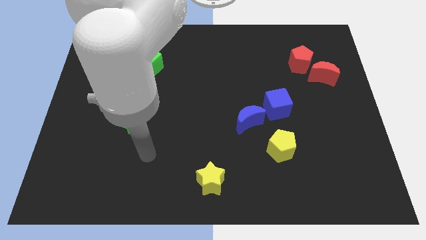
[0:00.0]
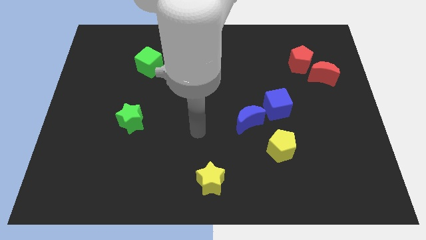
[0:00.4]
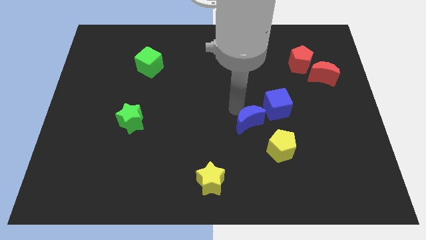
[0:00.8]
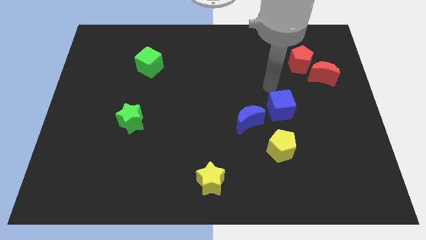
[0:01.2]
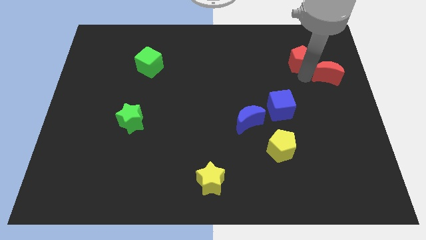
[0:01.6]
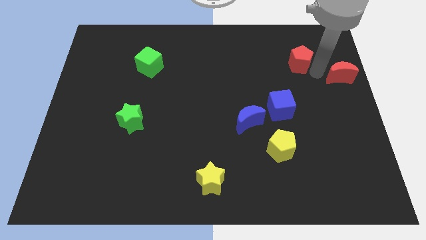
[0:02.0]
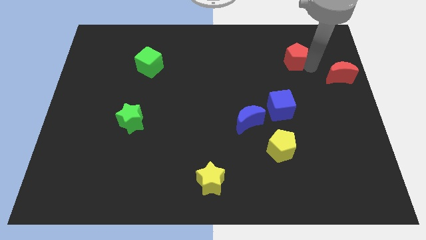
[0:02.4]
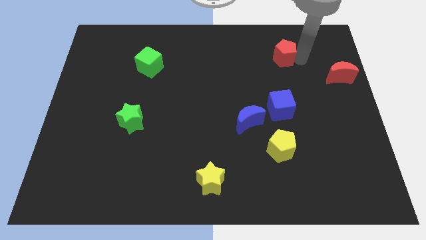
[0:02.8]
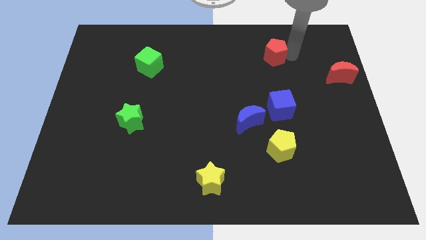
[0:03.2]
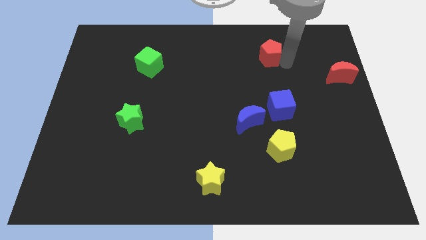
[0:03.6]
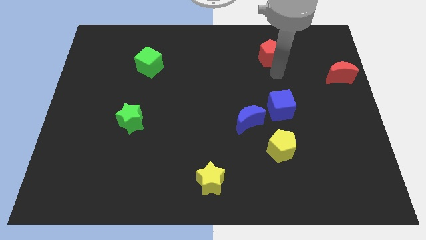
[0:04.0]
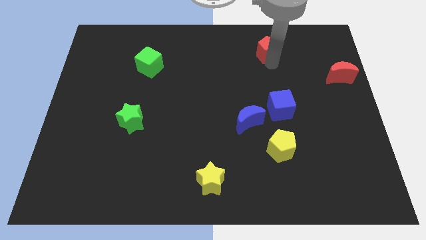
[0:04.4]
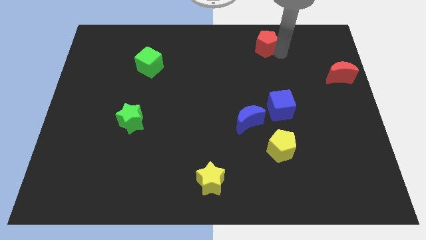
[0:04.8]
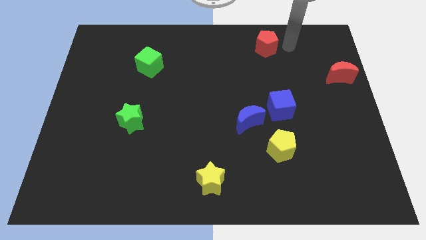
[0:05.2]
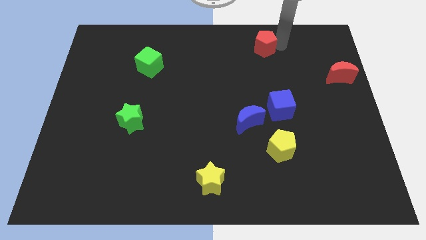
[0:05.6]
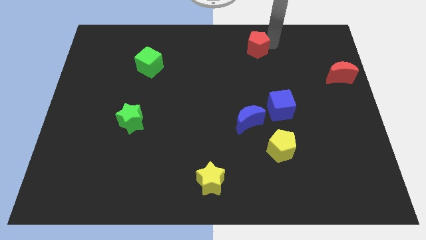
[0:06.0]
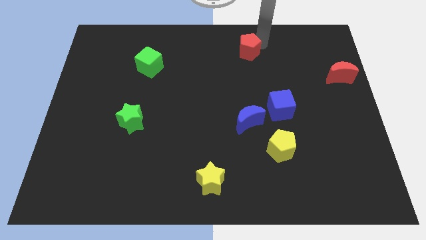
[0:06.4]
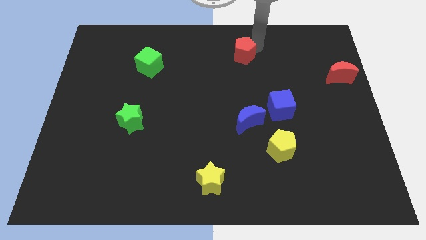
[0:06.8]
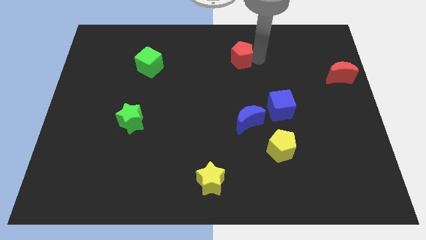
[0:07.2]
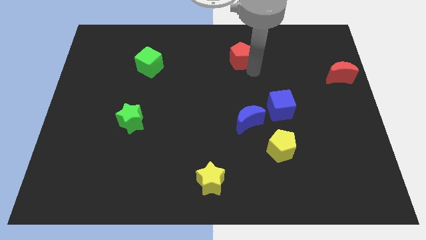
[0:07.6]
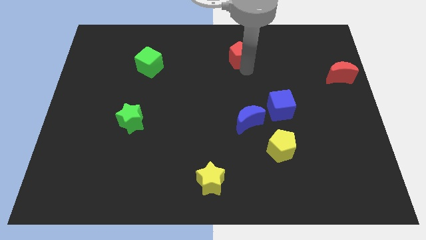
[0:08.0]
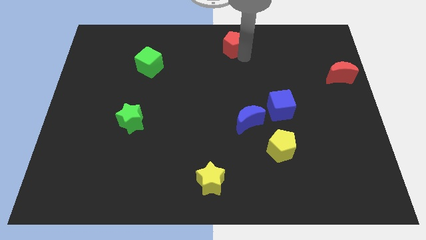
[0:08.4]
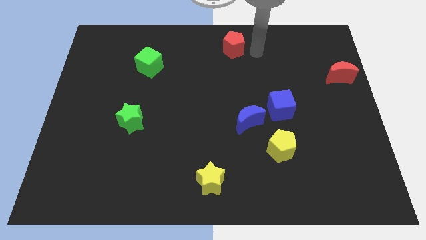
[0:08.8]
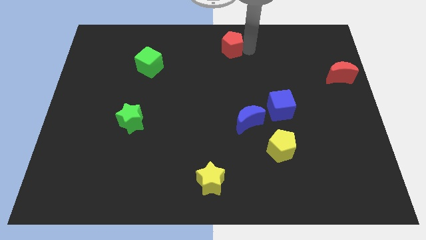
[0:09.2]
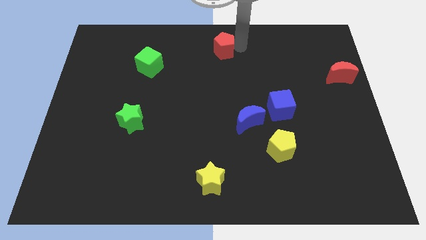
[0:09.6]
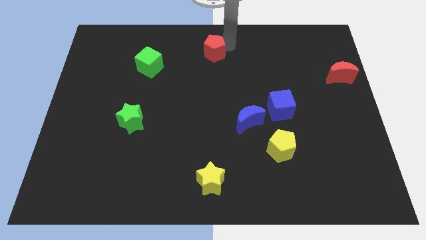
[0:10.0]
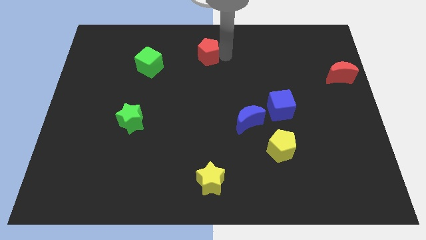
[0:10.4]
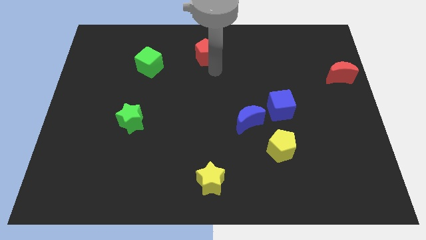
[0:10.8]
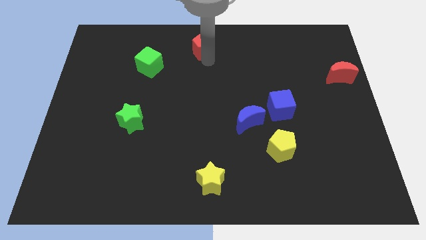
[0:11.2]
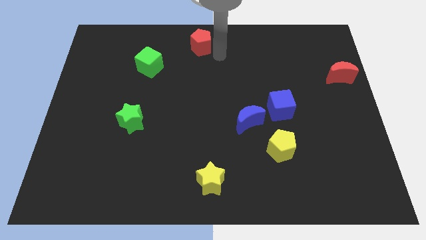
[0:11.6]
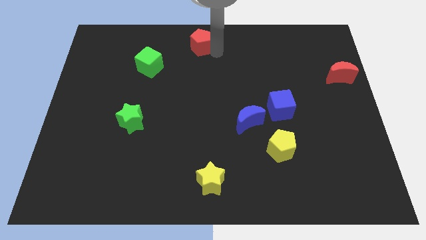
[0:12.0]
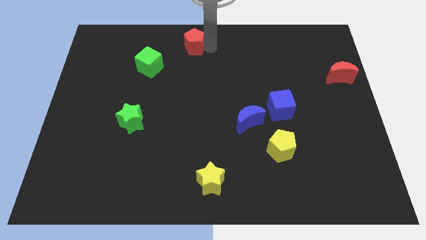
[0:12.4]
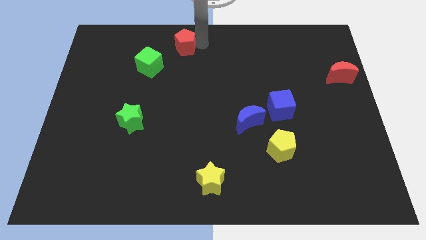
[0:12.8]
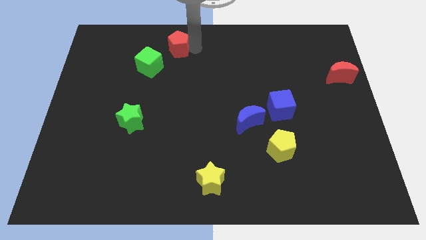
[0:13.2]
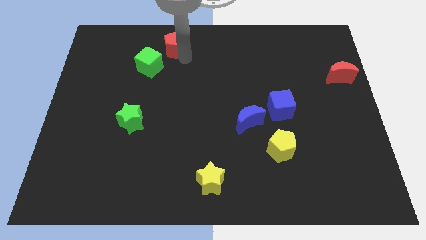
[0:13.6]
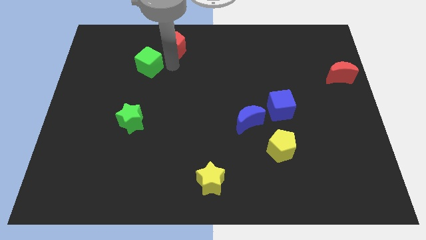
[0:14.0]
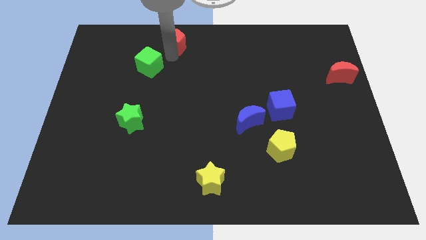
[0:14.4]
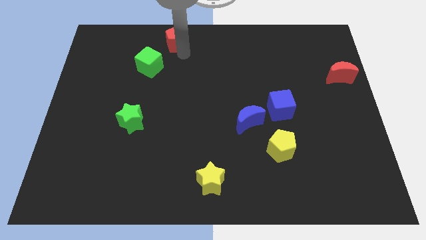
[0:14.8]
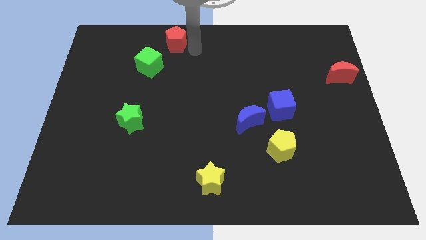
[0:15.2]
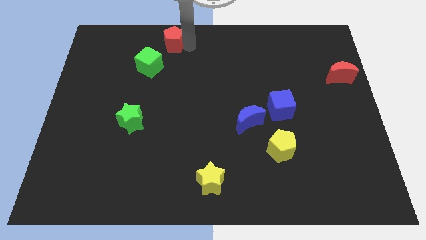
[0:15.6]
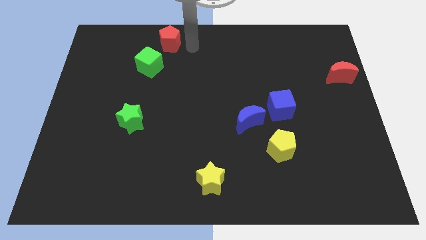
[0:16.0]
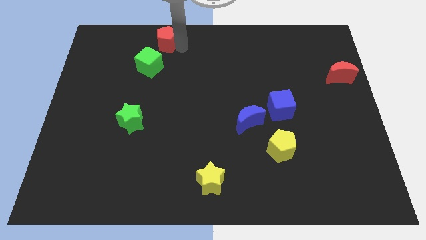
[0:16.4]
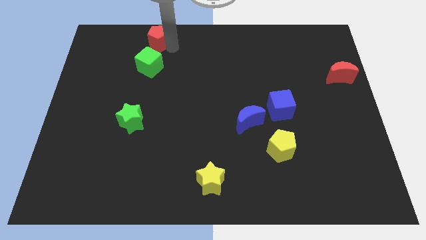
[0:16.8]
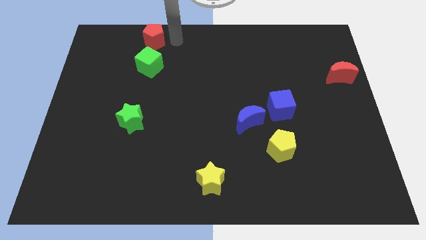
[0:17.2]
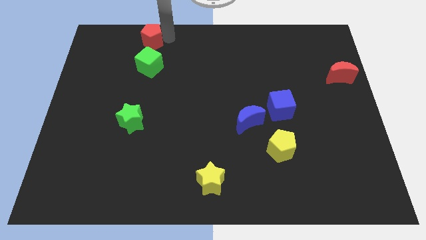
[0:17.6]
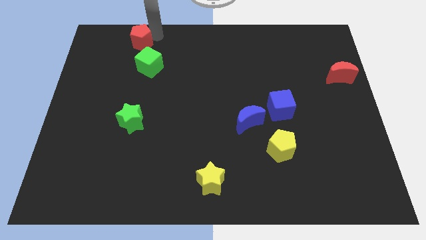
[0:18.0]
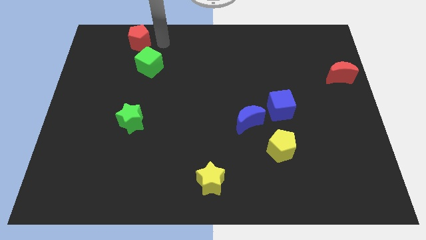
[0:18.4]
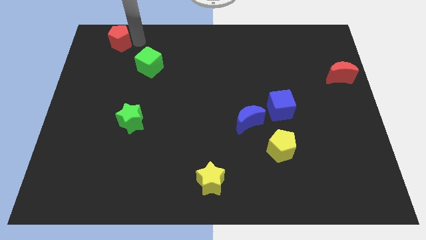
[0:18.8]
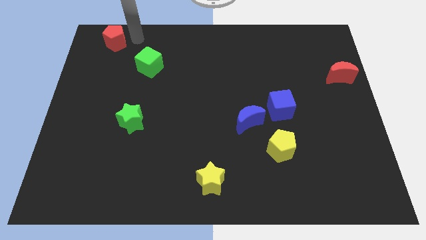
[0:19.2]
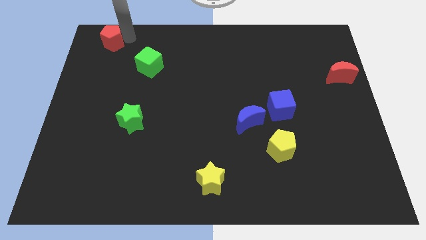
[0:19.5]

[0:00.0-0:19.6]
put the red pentagon to the top left of the board

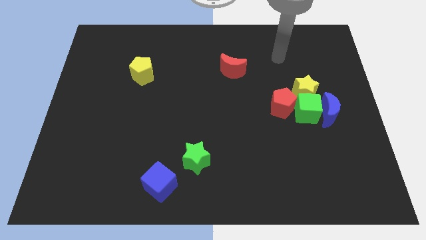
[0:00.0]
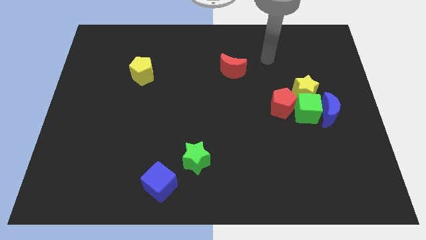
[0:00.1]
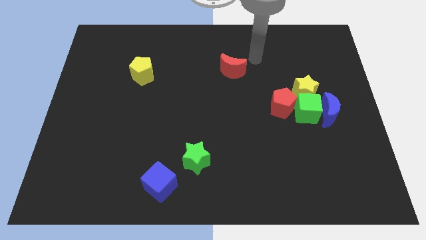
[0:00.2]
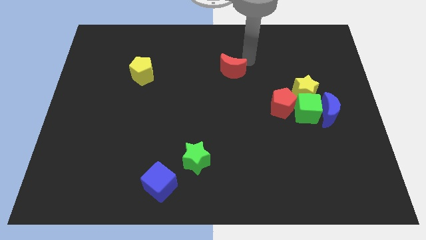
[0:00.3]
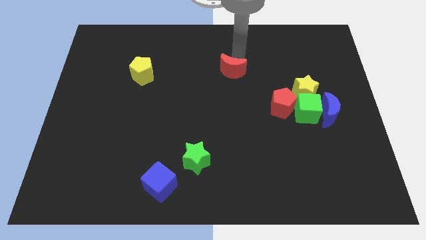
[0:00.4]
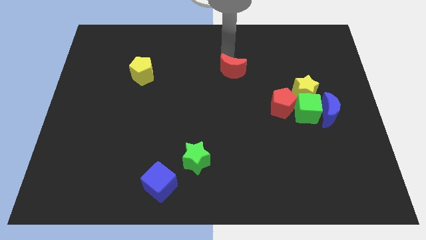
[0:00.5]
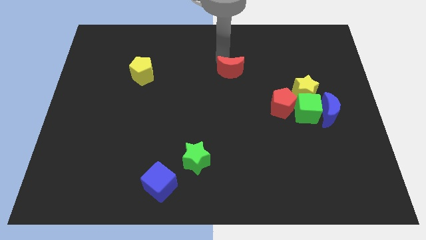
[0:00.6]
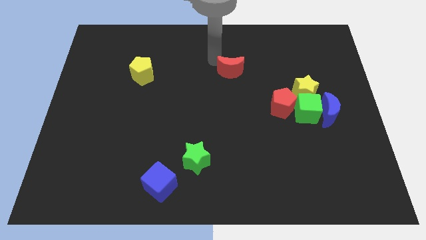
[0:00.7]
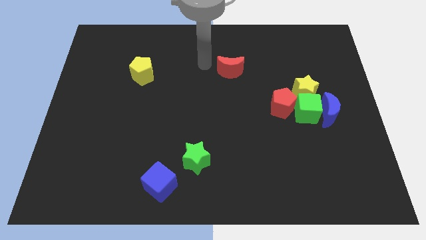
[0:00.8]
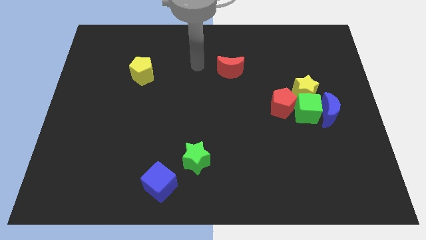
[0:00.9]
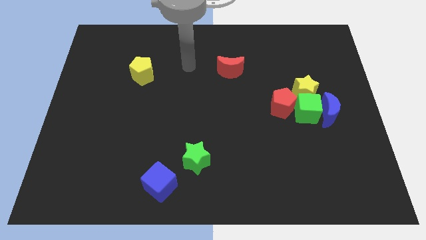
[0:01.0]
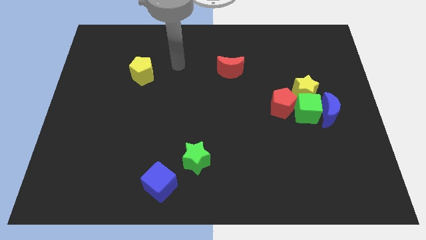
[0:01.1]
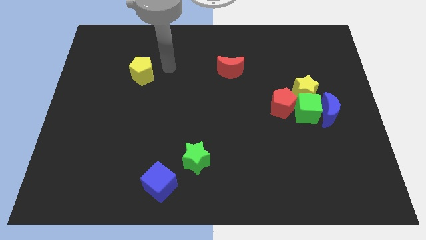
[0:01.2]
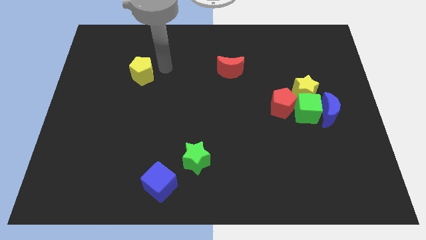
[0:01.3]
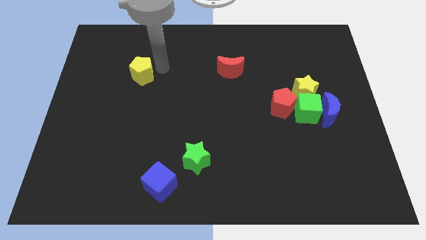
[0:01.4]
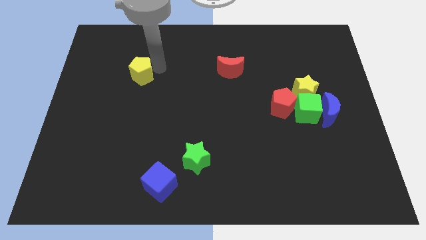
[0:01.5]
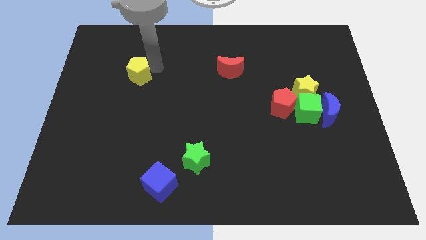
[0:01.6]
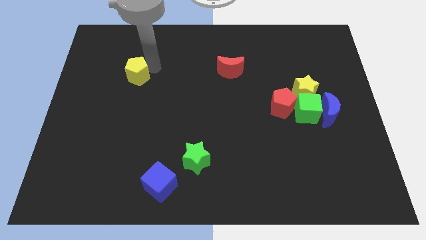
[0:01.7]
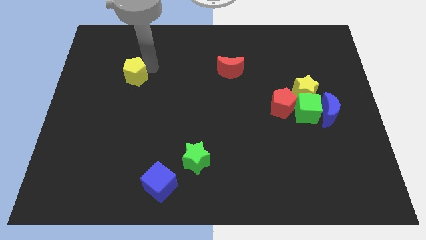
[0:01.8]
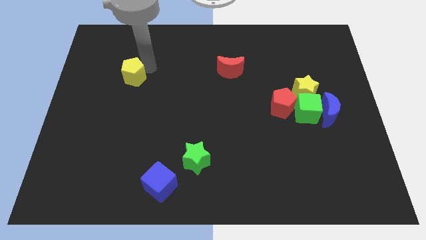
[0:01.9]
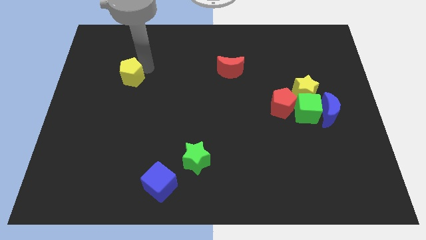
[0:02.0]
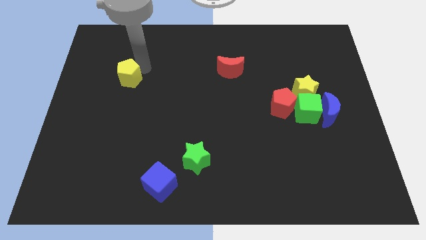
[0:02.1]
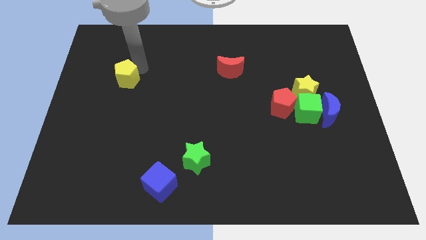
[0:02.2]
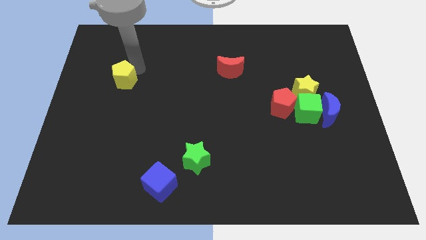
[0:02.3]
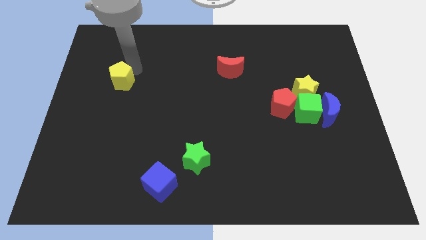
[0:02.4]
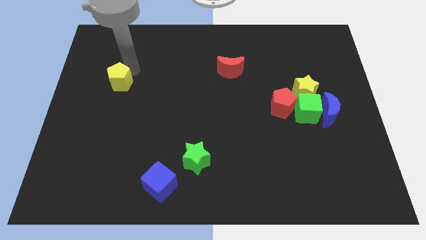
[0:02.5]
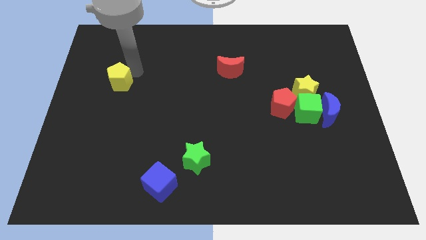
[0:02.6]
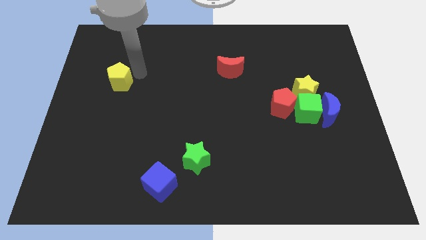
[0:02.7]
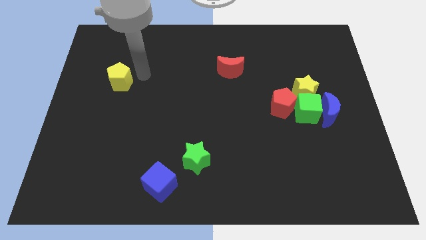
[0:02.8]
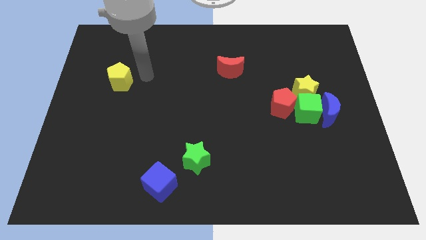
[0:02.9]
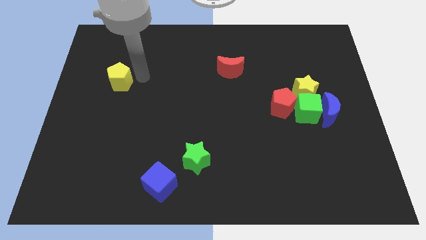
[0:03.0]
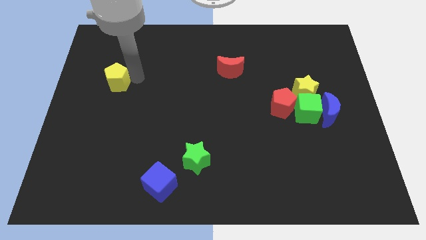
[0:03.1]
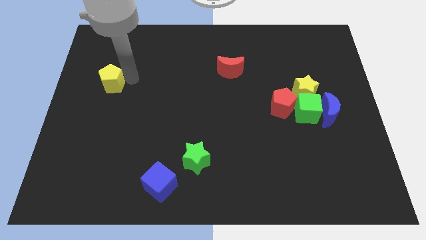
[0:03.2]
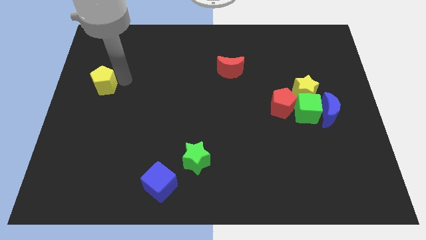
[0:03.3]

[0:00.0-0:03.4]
put the yellow pentagon to the center left
